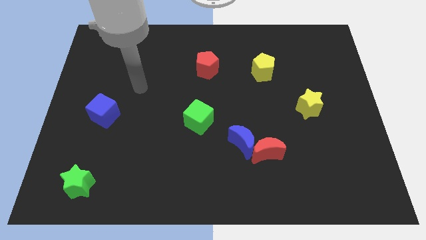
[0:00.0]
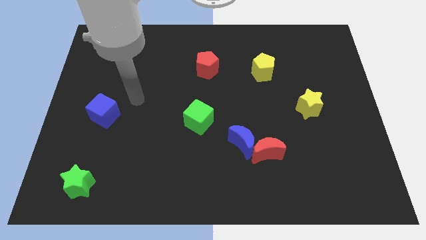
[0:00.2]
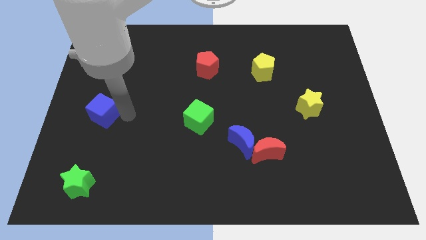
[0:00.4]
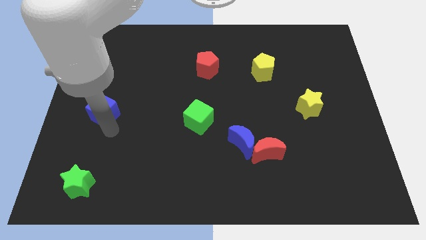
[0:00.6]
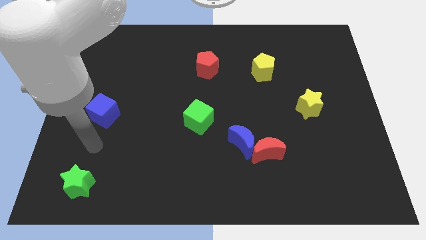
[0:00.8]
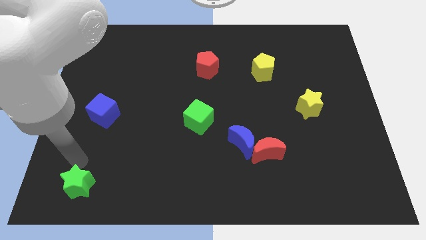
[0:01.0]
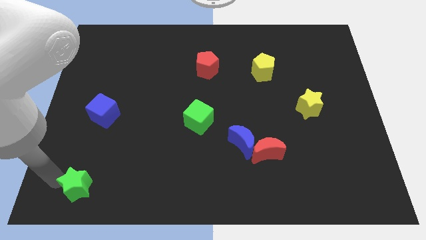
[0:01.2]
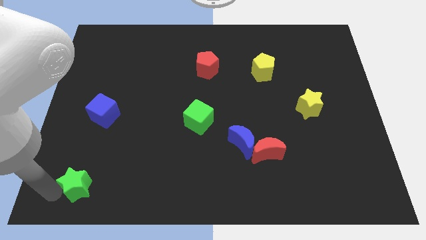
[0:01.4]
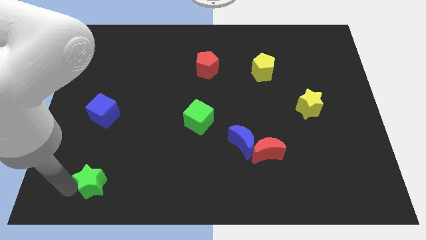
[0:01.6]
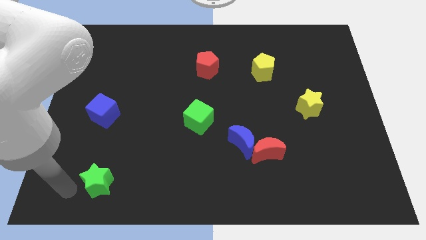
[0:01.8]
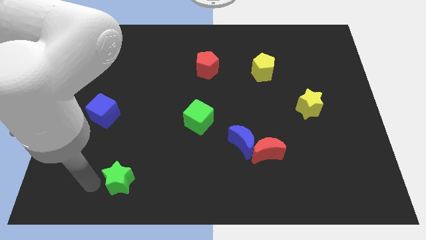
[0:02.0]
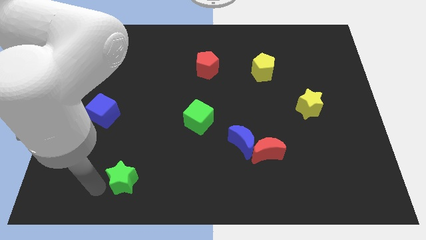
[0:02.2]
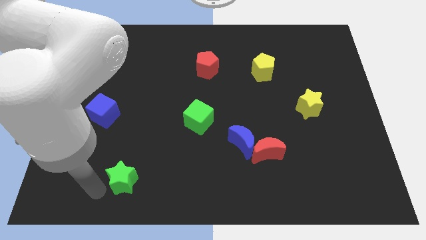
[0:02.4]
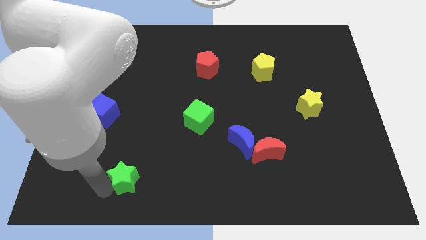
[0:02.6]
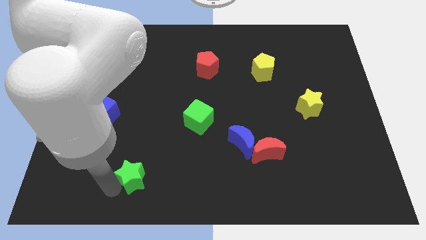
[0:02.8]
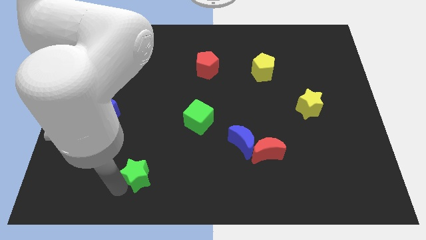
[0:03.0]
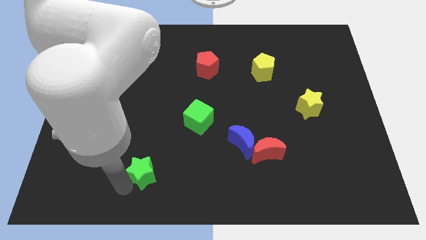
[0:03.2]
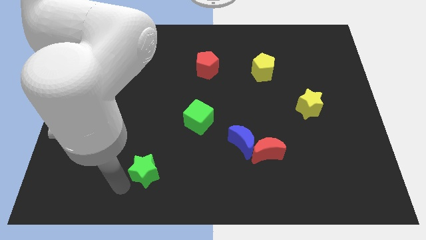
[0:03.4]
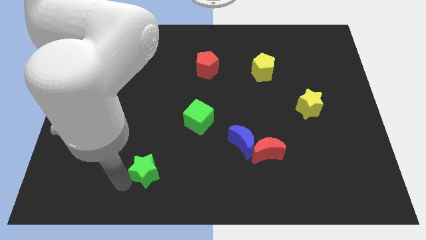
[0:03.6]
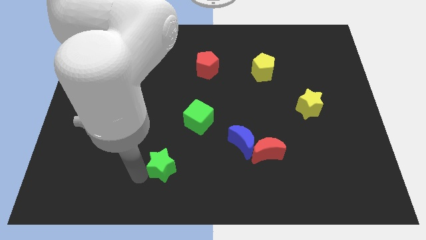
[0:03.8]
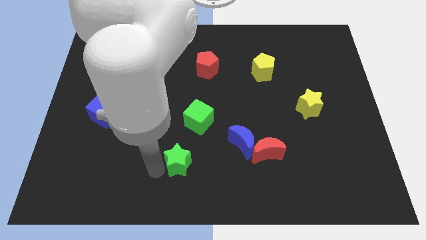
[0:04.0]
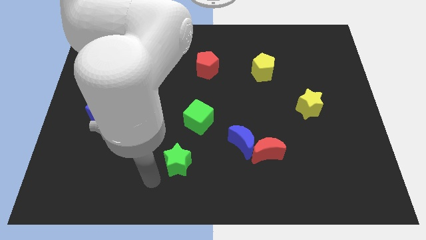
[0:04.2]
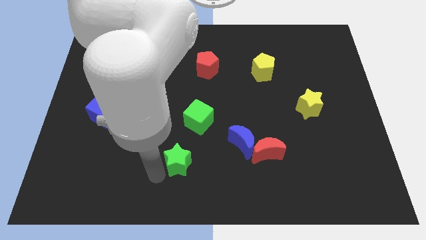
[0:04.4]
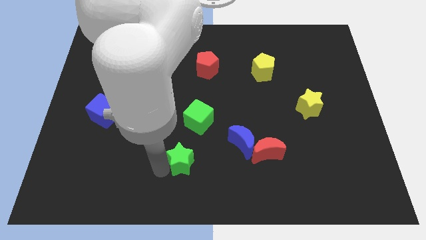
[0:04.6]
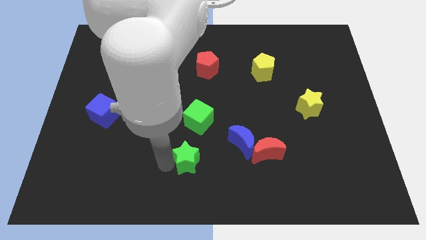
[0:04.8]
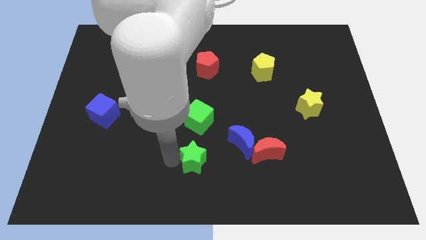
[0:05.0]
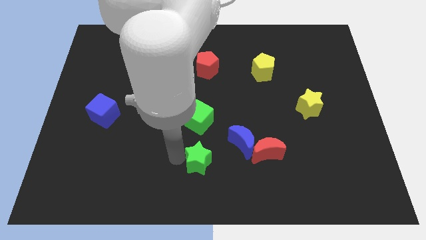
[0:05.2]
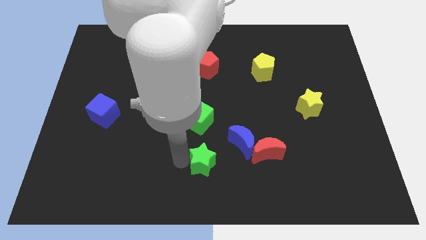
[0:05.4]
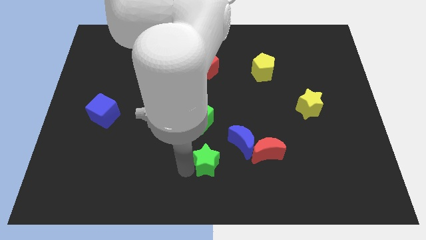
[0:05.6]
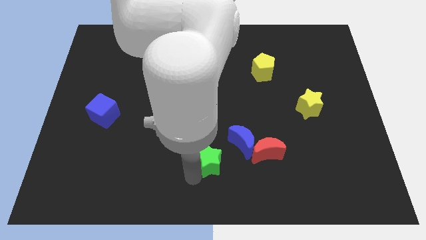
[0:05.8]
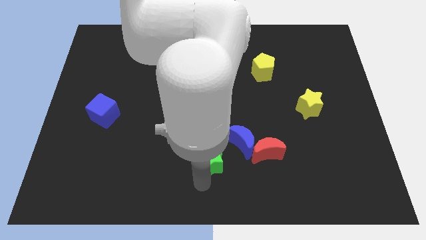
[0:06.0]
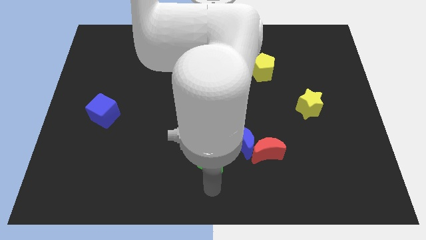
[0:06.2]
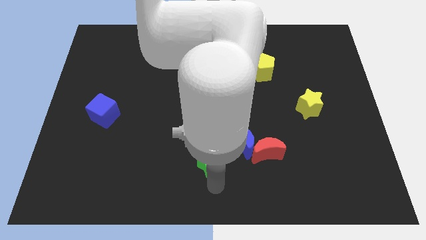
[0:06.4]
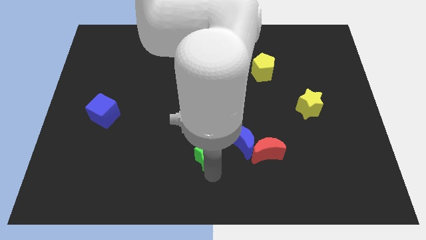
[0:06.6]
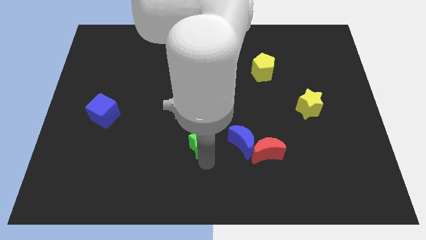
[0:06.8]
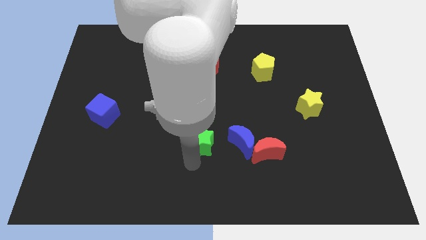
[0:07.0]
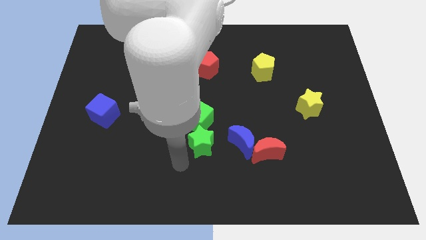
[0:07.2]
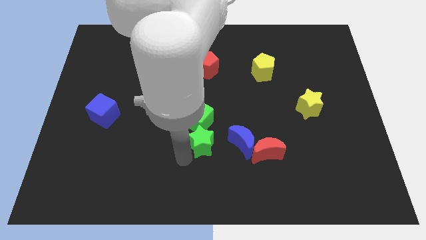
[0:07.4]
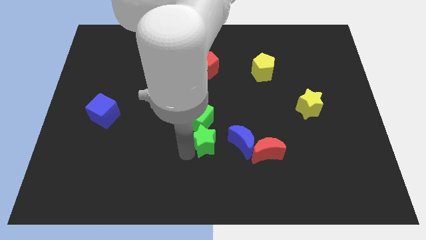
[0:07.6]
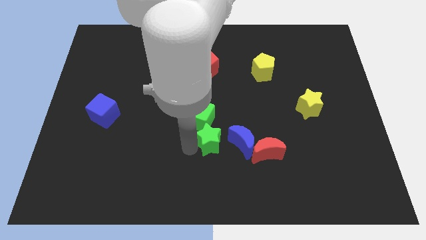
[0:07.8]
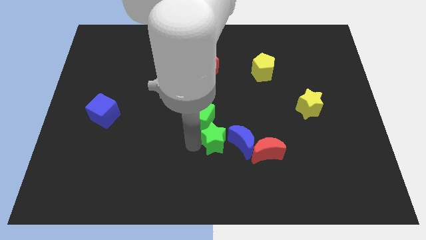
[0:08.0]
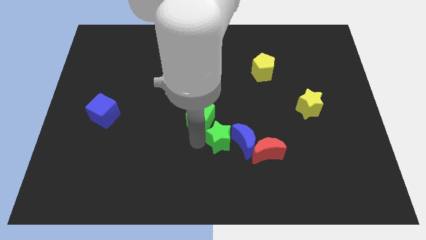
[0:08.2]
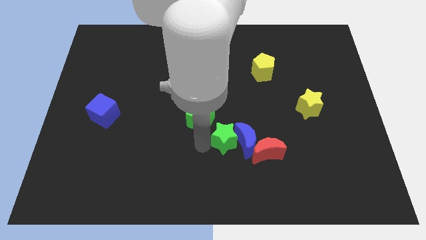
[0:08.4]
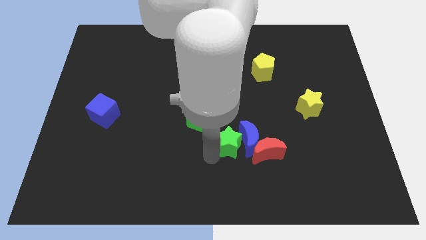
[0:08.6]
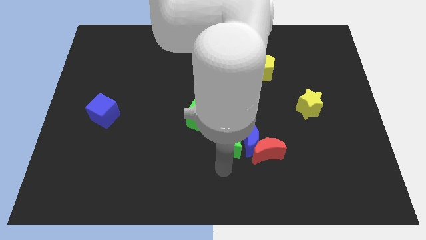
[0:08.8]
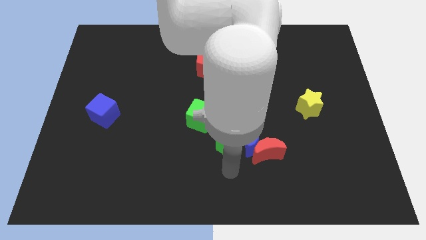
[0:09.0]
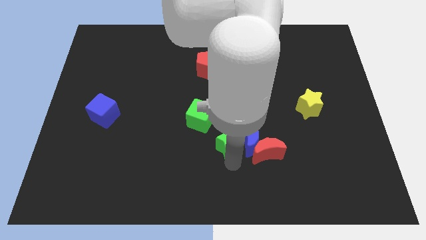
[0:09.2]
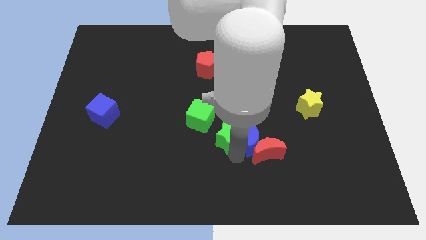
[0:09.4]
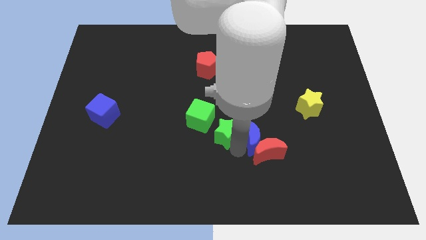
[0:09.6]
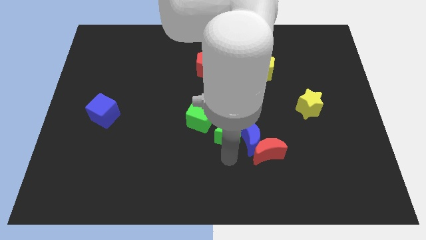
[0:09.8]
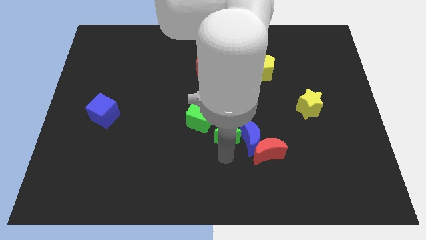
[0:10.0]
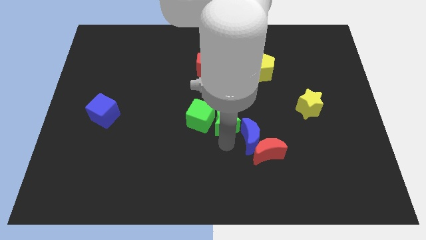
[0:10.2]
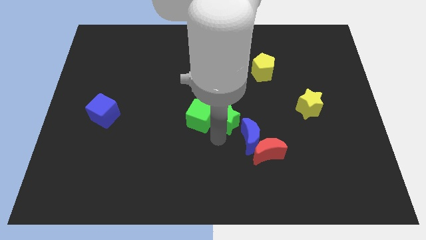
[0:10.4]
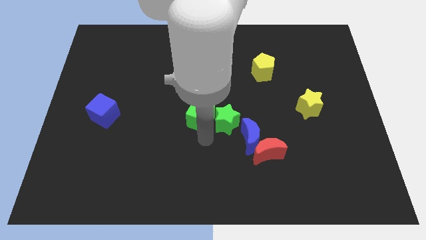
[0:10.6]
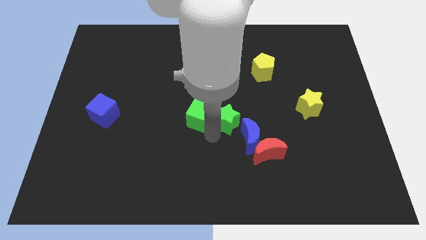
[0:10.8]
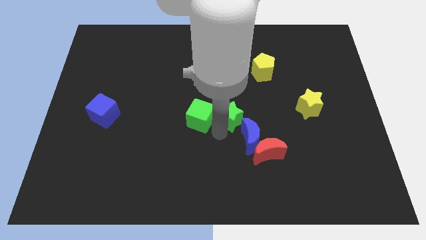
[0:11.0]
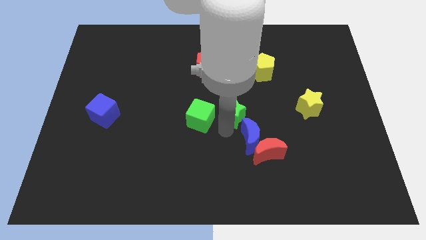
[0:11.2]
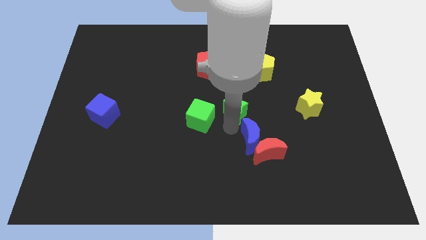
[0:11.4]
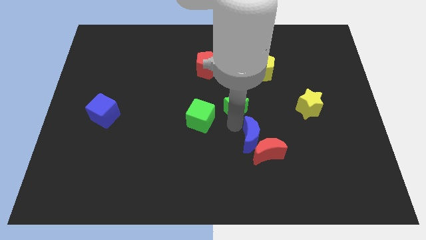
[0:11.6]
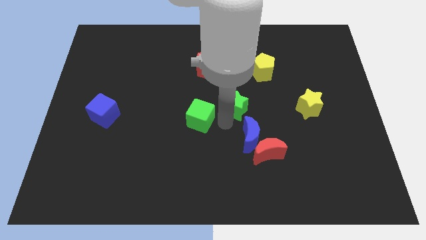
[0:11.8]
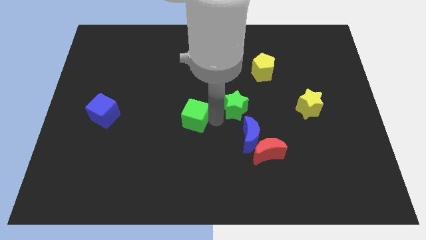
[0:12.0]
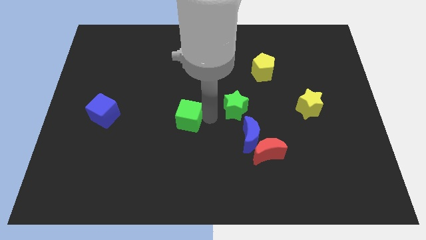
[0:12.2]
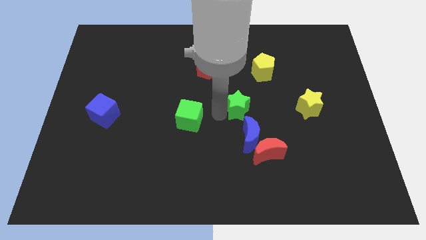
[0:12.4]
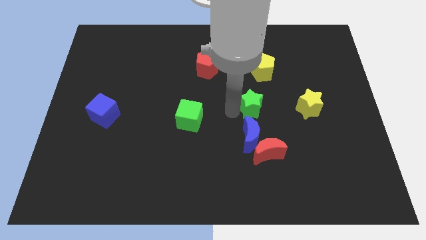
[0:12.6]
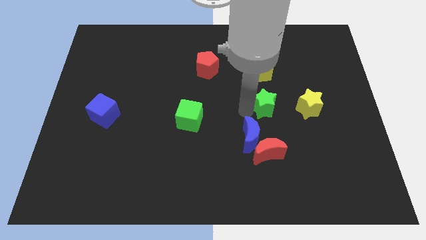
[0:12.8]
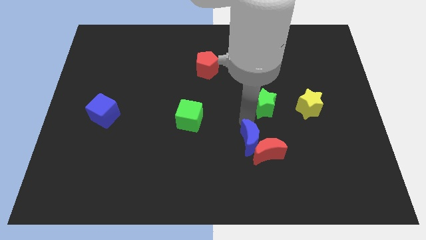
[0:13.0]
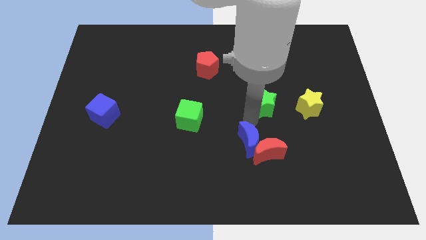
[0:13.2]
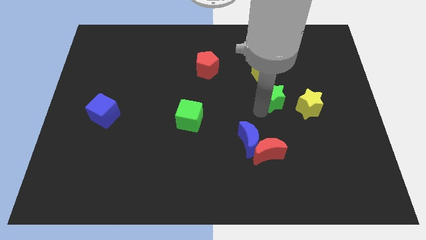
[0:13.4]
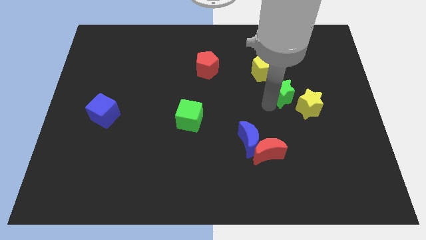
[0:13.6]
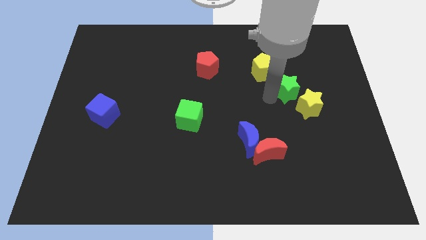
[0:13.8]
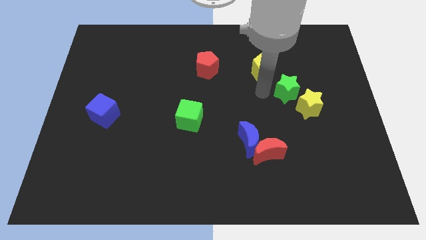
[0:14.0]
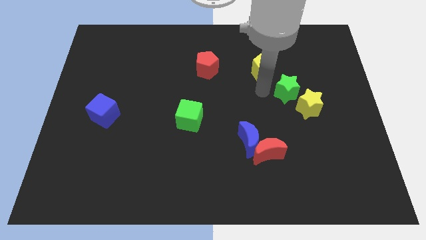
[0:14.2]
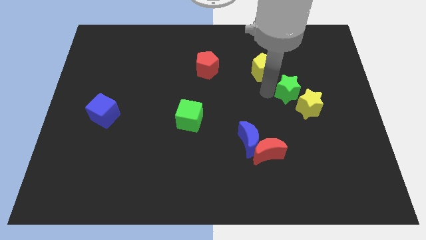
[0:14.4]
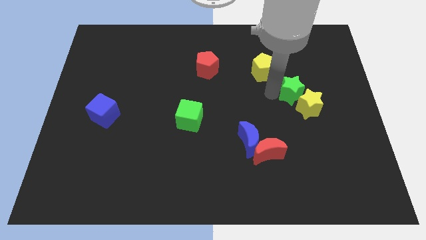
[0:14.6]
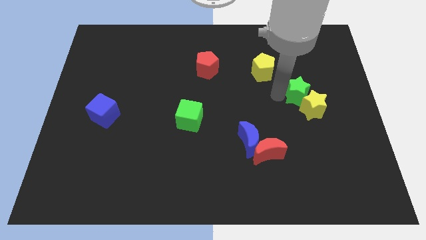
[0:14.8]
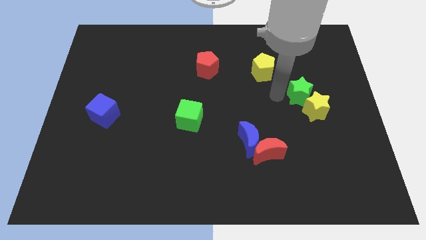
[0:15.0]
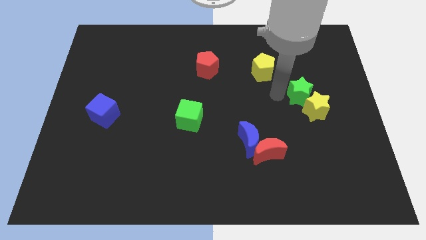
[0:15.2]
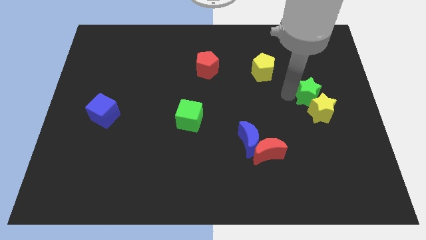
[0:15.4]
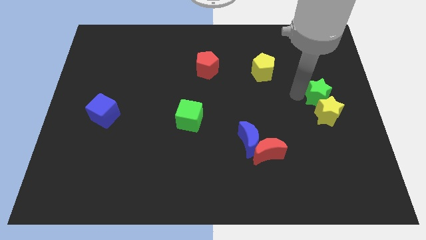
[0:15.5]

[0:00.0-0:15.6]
push the green star to the center right
